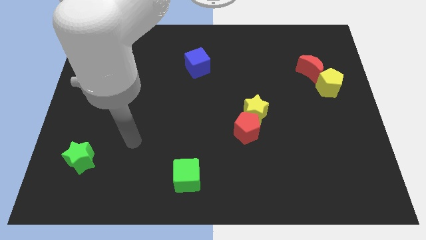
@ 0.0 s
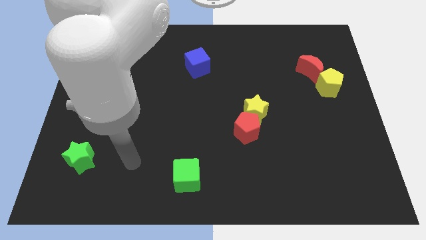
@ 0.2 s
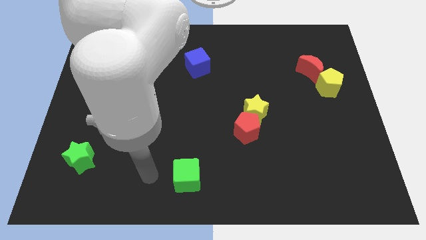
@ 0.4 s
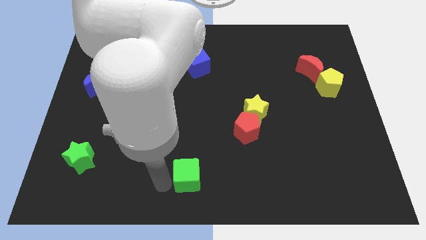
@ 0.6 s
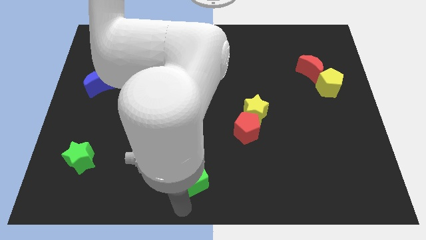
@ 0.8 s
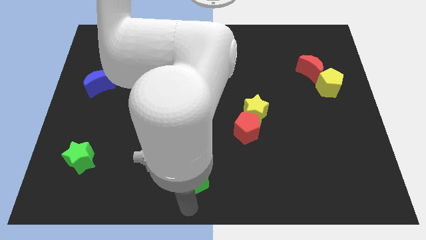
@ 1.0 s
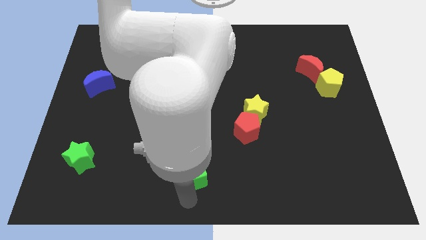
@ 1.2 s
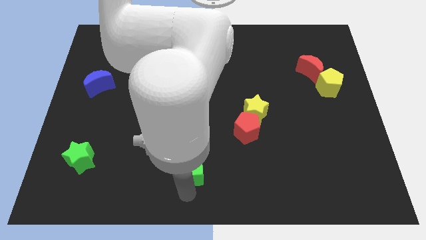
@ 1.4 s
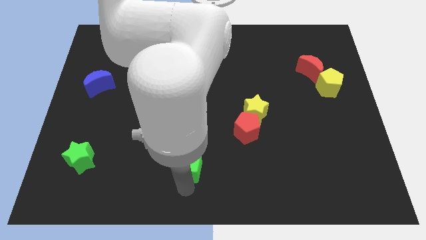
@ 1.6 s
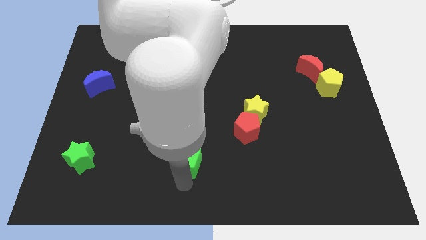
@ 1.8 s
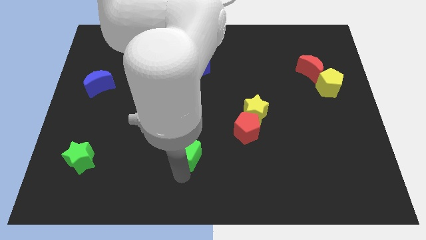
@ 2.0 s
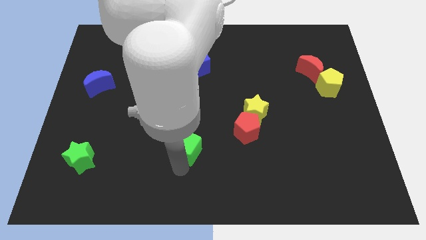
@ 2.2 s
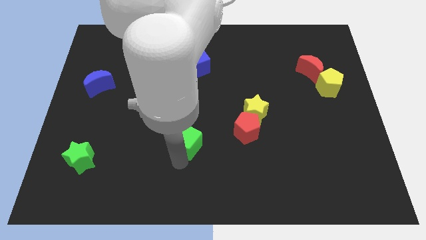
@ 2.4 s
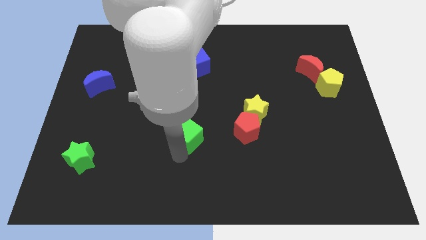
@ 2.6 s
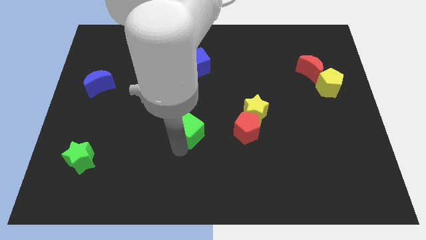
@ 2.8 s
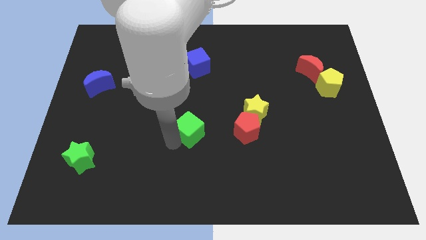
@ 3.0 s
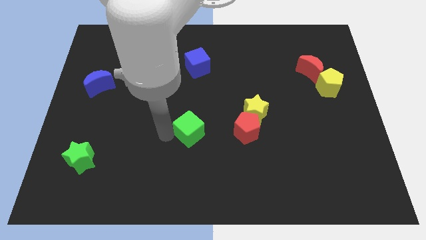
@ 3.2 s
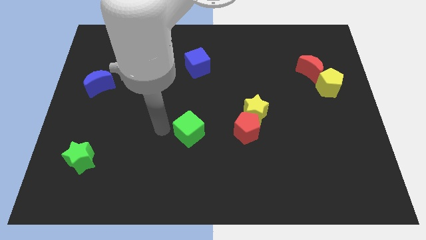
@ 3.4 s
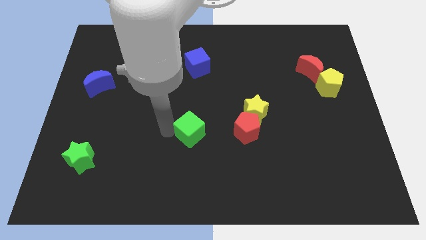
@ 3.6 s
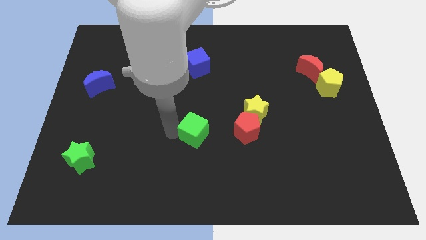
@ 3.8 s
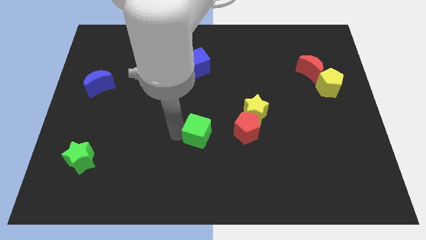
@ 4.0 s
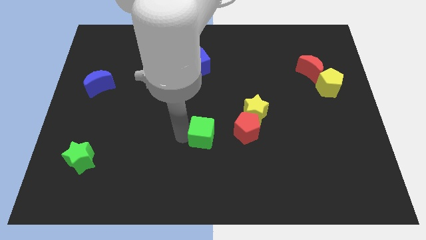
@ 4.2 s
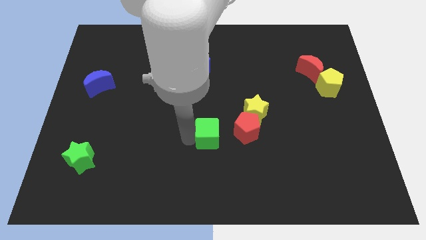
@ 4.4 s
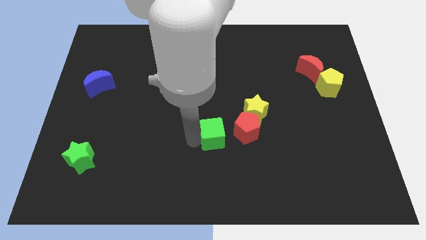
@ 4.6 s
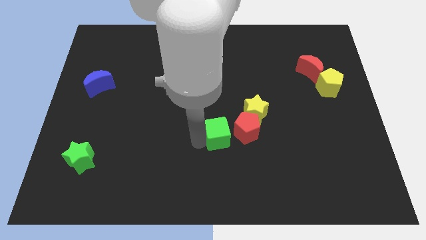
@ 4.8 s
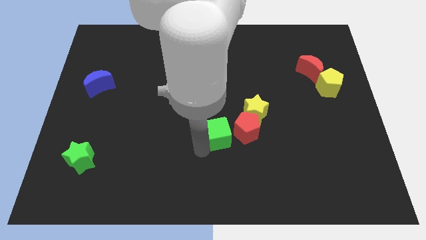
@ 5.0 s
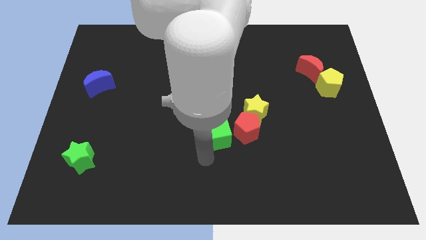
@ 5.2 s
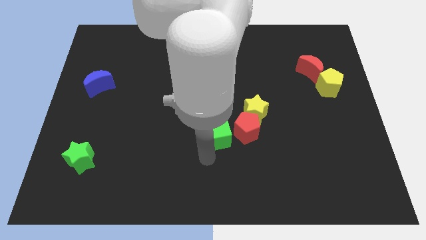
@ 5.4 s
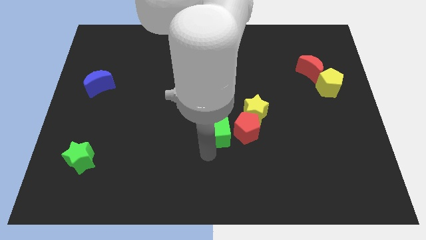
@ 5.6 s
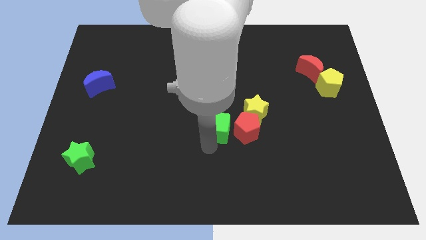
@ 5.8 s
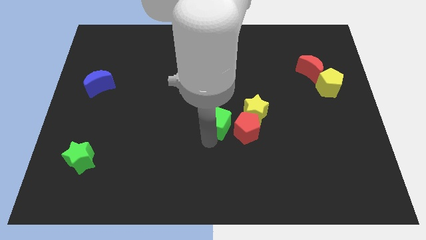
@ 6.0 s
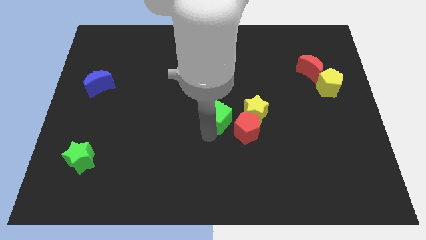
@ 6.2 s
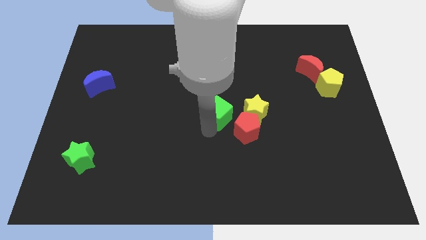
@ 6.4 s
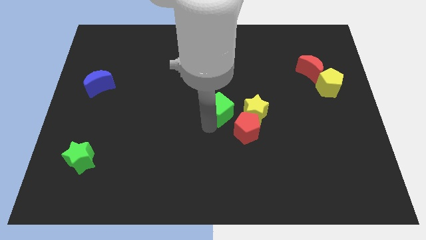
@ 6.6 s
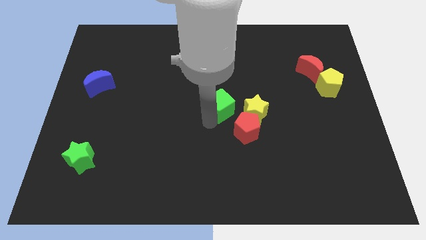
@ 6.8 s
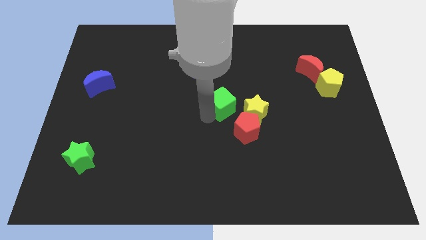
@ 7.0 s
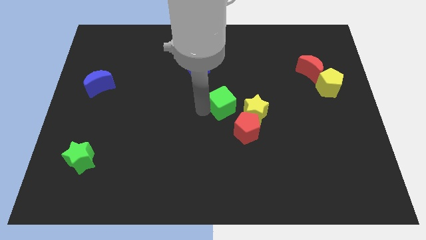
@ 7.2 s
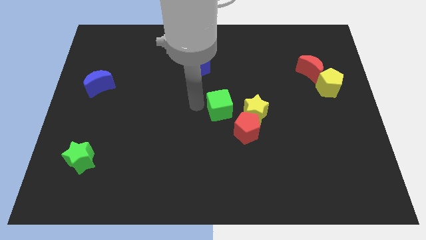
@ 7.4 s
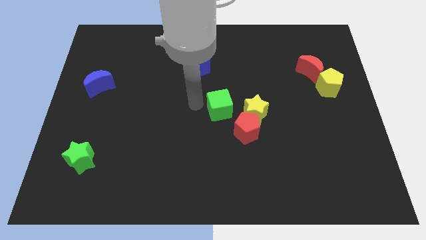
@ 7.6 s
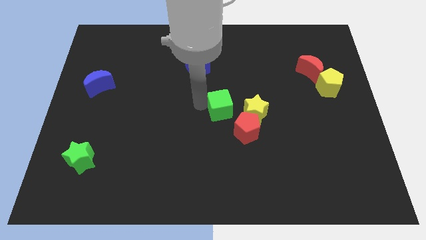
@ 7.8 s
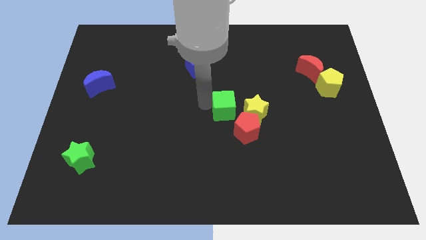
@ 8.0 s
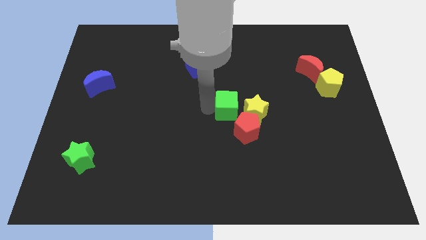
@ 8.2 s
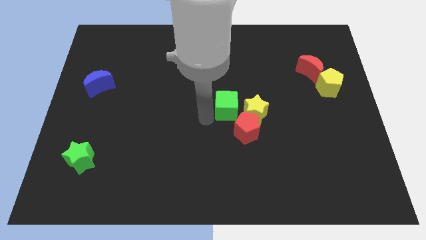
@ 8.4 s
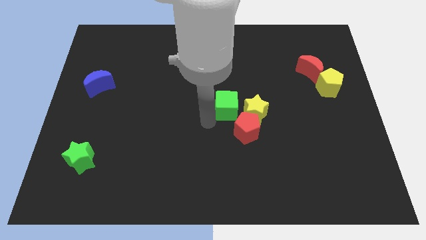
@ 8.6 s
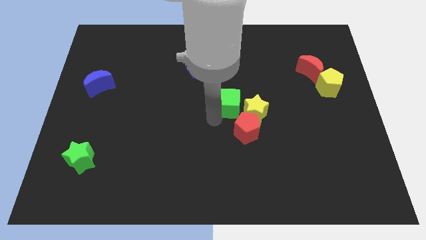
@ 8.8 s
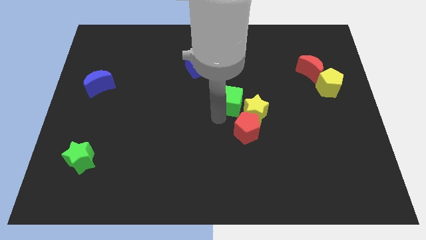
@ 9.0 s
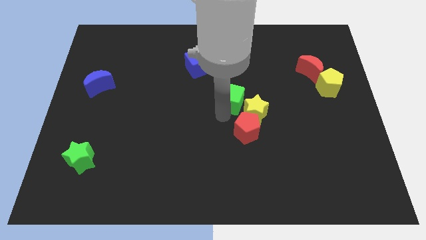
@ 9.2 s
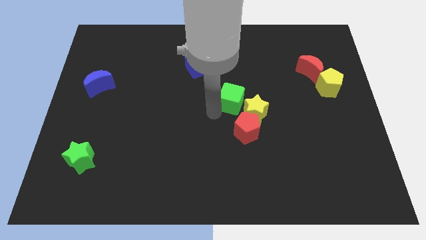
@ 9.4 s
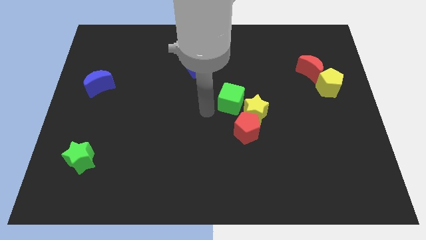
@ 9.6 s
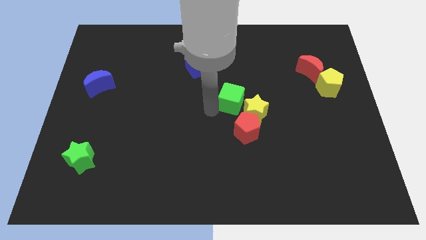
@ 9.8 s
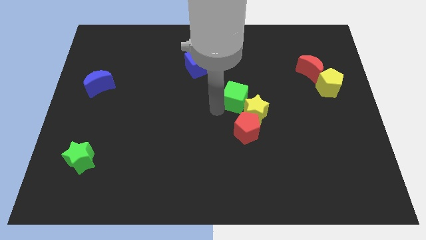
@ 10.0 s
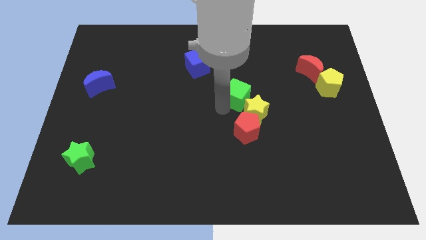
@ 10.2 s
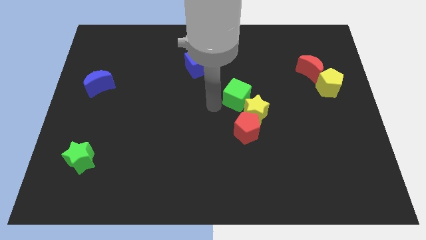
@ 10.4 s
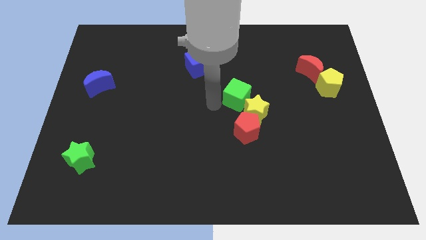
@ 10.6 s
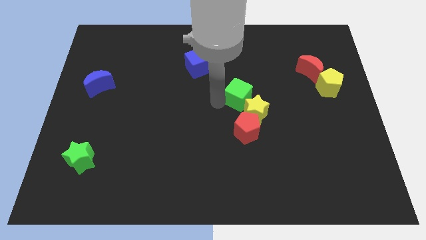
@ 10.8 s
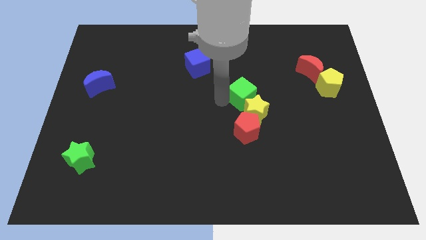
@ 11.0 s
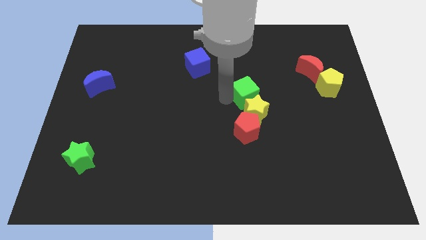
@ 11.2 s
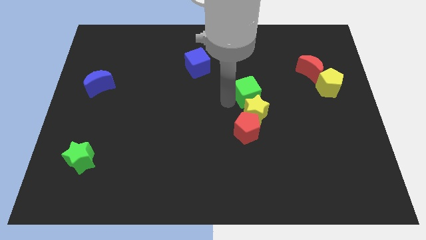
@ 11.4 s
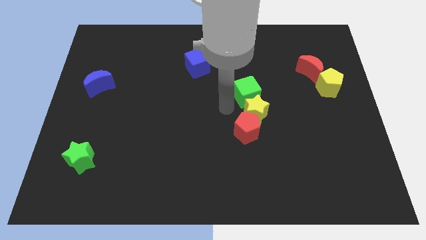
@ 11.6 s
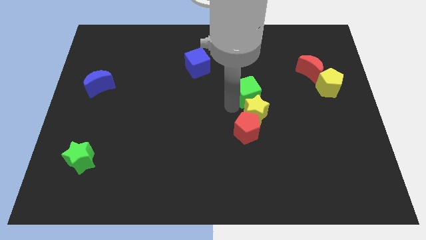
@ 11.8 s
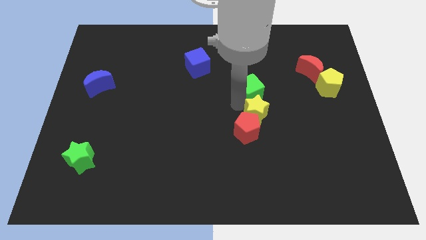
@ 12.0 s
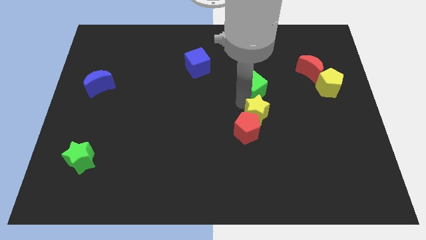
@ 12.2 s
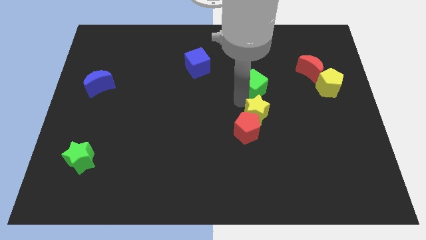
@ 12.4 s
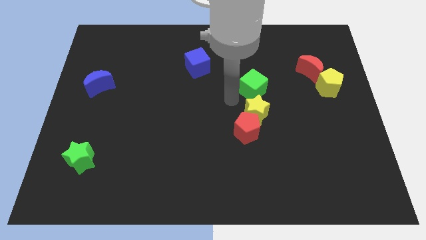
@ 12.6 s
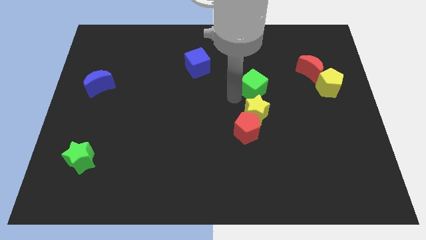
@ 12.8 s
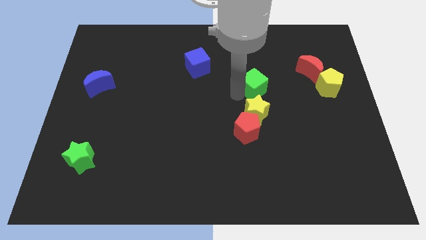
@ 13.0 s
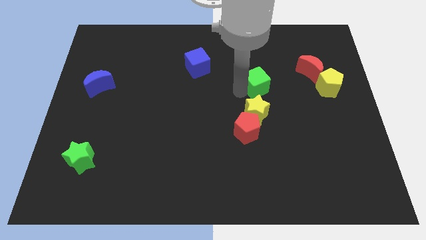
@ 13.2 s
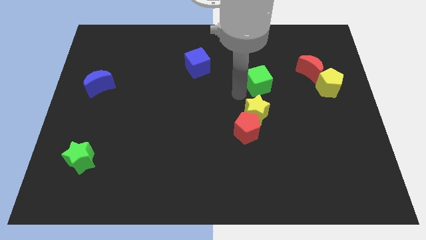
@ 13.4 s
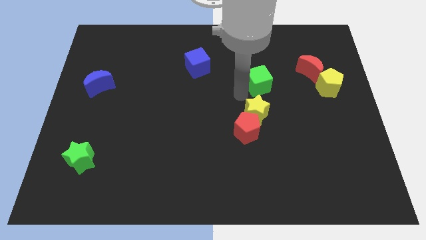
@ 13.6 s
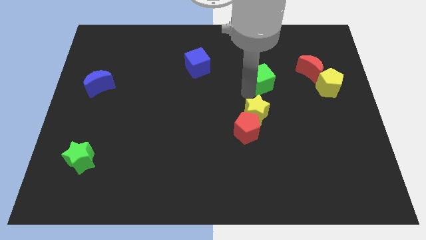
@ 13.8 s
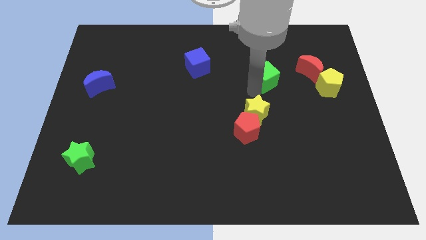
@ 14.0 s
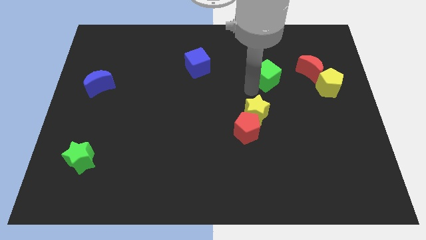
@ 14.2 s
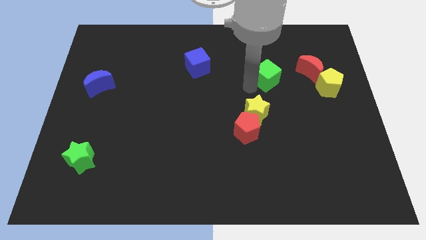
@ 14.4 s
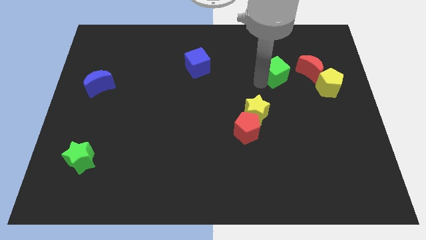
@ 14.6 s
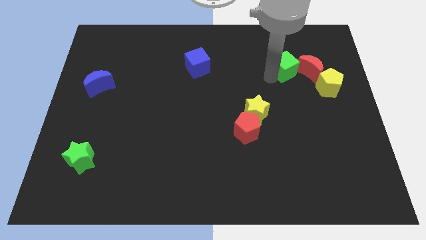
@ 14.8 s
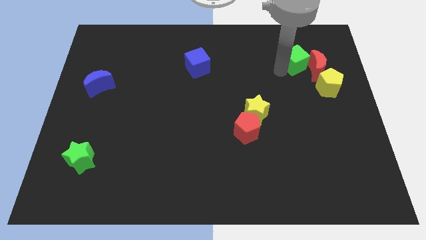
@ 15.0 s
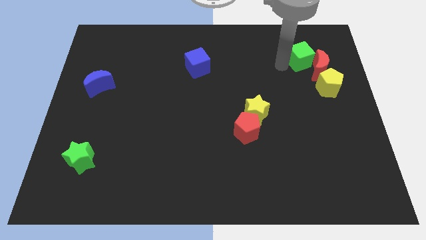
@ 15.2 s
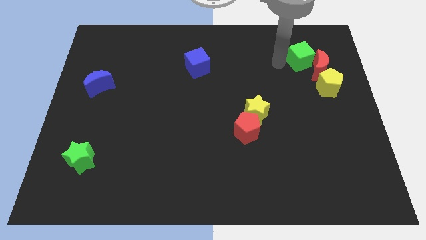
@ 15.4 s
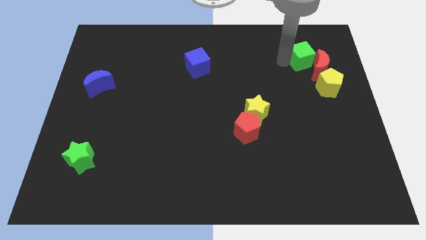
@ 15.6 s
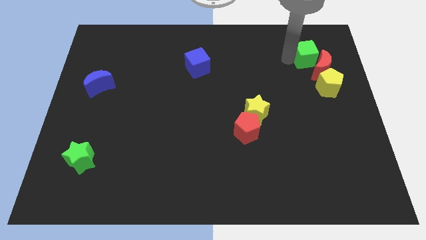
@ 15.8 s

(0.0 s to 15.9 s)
slide the green cube to the top of the yellow pentagon
